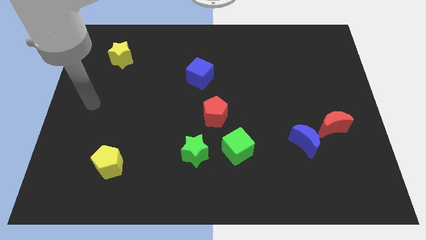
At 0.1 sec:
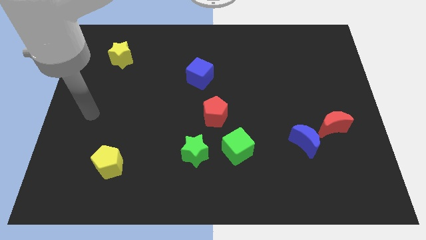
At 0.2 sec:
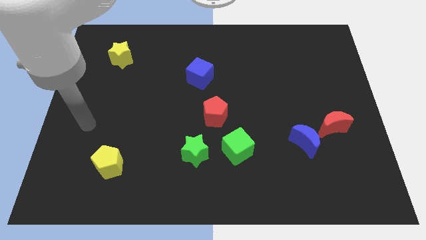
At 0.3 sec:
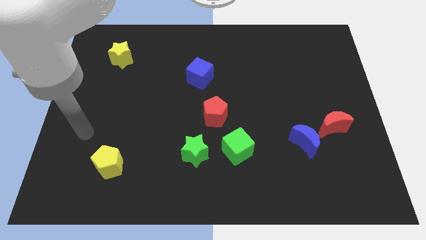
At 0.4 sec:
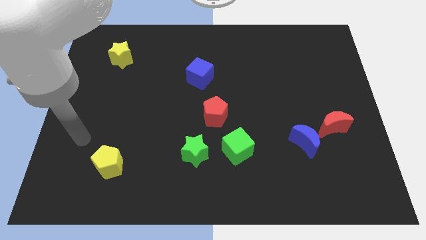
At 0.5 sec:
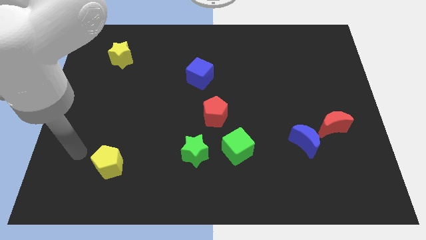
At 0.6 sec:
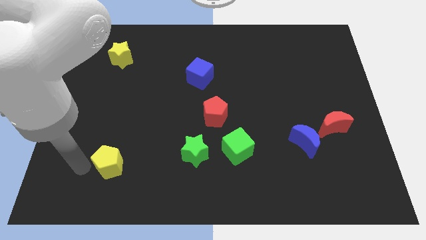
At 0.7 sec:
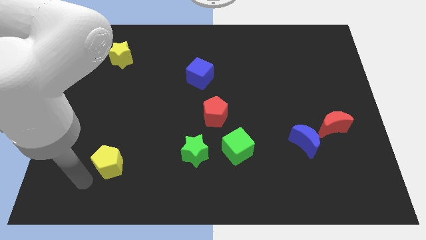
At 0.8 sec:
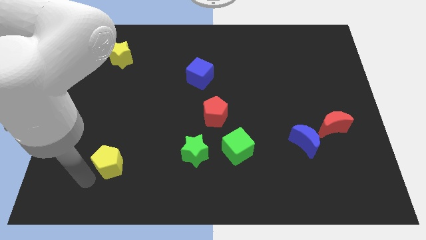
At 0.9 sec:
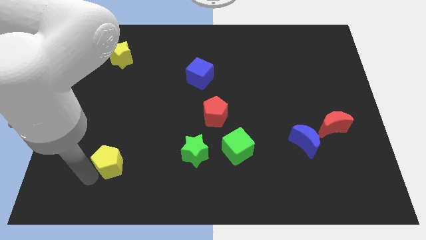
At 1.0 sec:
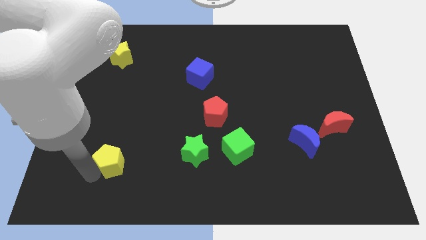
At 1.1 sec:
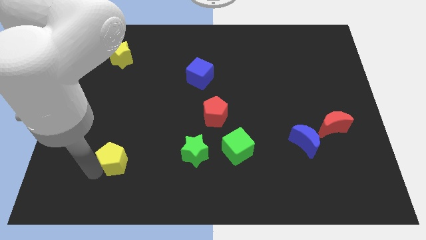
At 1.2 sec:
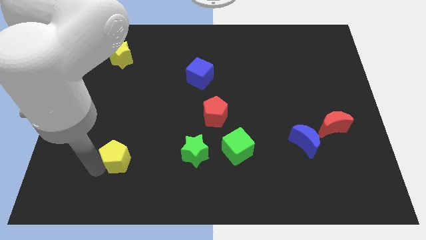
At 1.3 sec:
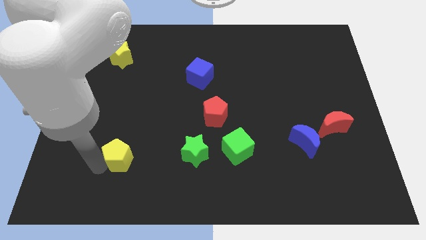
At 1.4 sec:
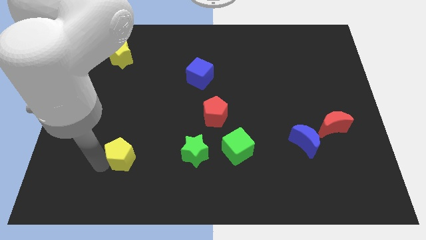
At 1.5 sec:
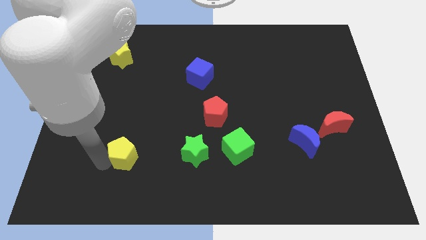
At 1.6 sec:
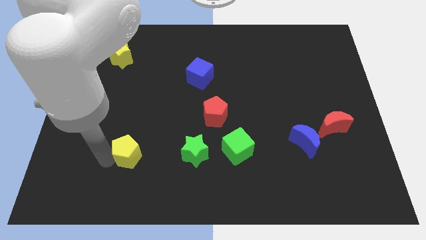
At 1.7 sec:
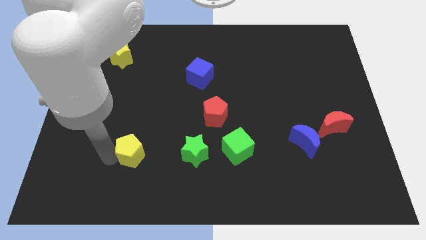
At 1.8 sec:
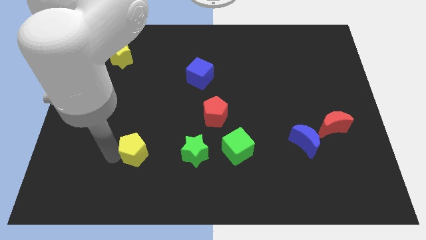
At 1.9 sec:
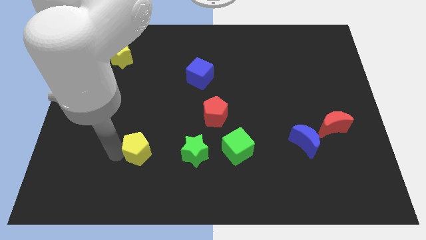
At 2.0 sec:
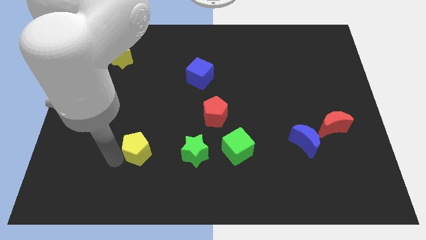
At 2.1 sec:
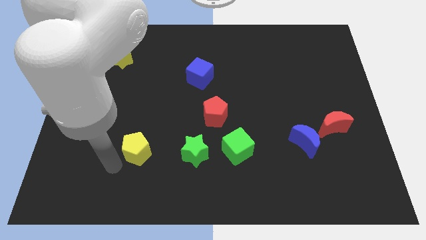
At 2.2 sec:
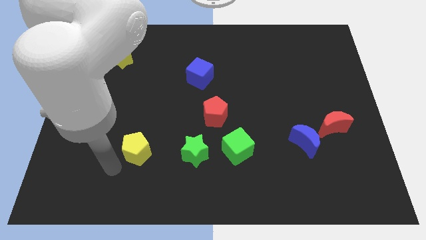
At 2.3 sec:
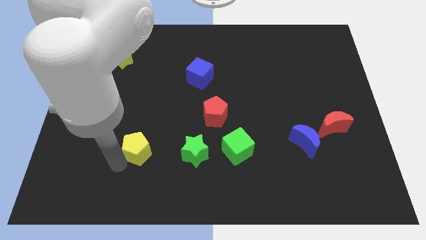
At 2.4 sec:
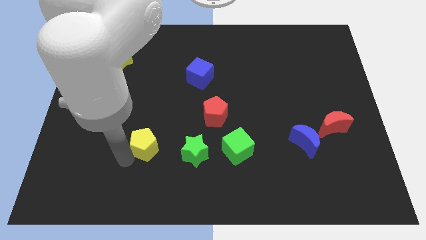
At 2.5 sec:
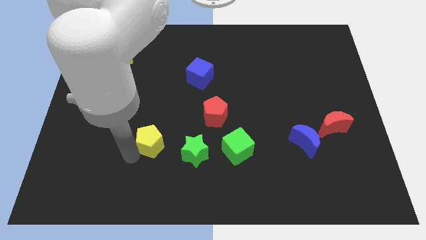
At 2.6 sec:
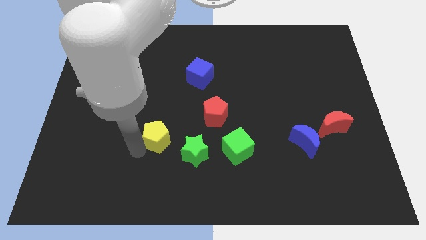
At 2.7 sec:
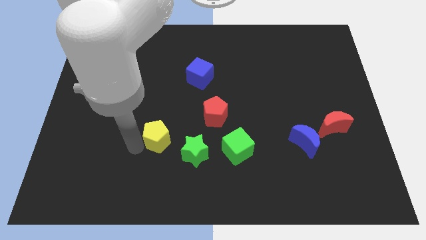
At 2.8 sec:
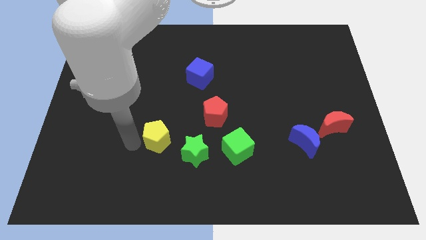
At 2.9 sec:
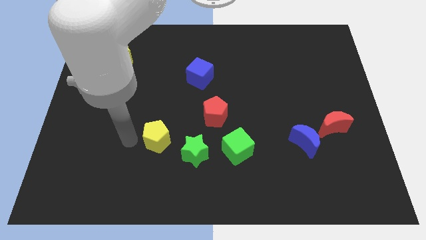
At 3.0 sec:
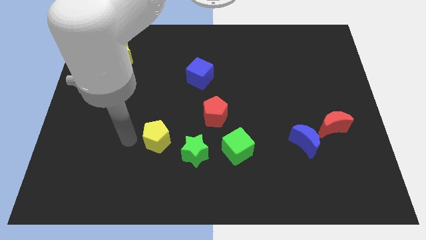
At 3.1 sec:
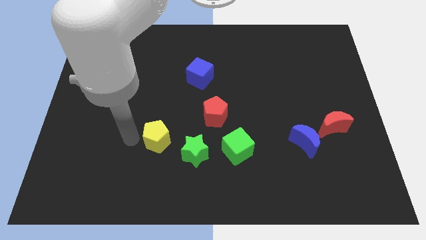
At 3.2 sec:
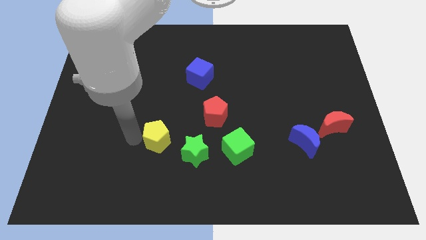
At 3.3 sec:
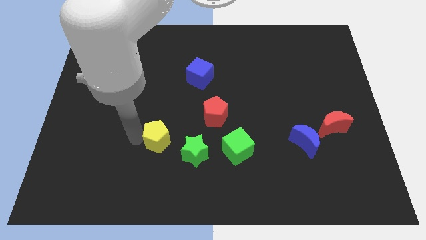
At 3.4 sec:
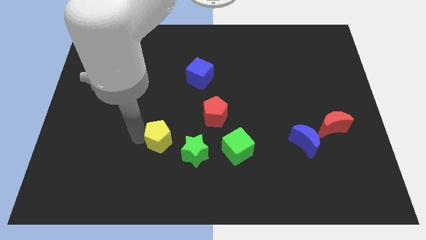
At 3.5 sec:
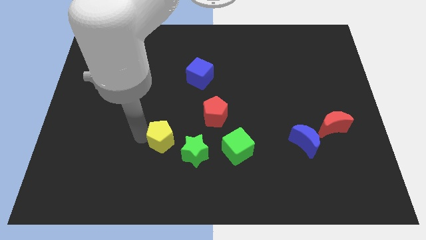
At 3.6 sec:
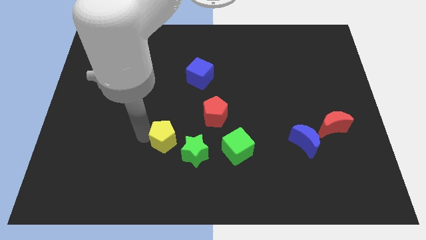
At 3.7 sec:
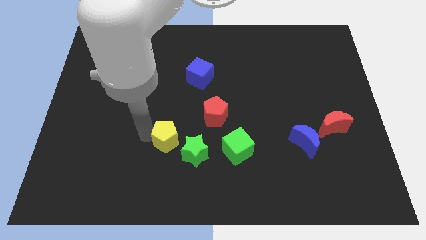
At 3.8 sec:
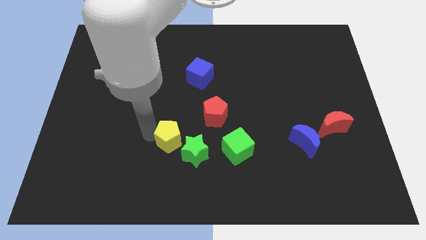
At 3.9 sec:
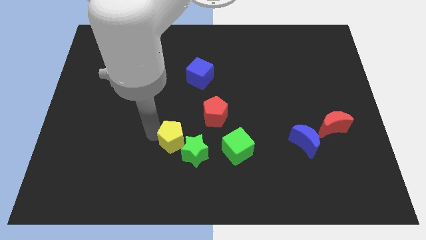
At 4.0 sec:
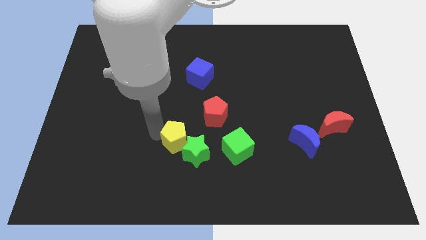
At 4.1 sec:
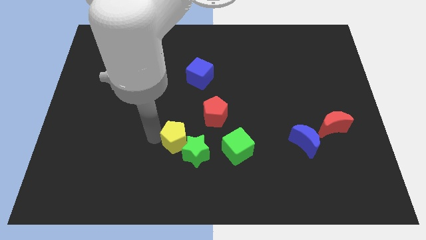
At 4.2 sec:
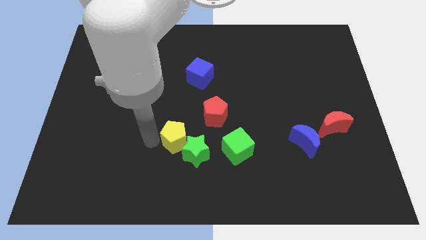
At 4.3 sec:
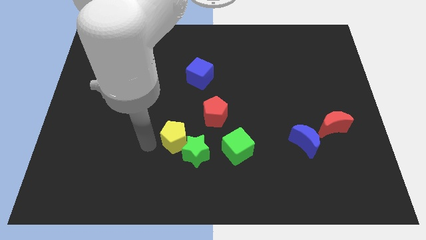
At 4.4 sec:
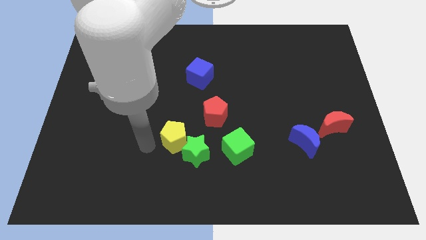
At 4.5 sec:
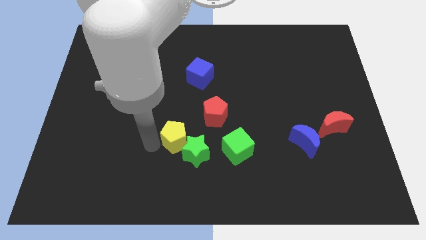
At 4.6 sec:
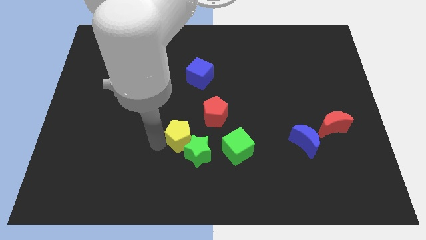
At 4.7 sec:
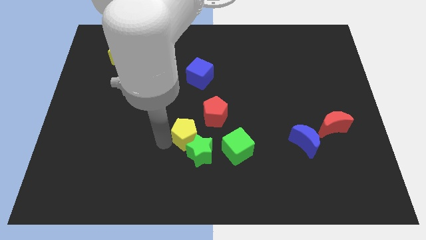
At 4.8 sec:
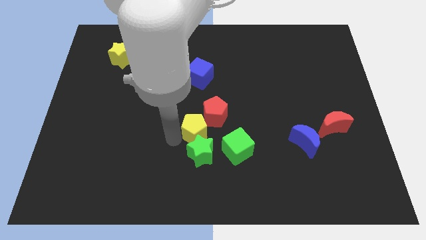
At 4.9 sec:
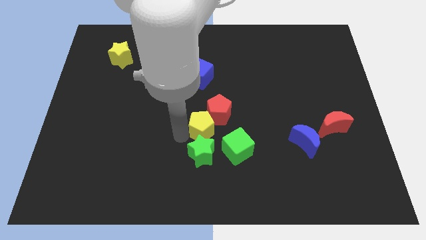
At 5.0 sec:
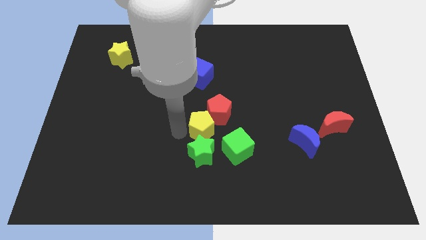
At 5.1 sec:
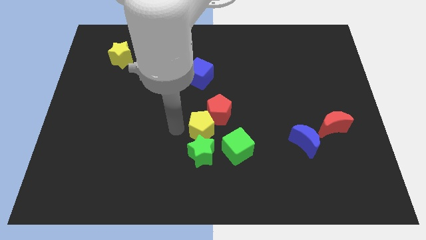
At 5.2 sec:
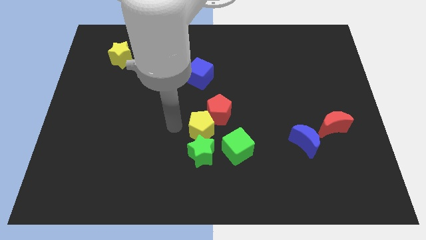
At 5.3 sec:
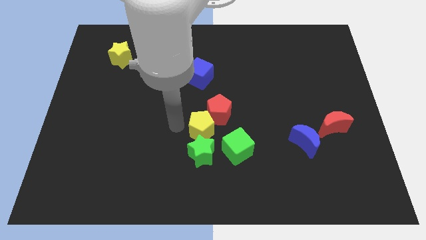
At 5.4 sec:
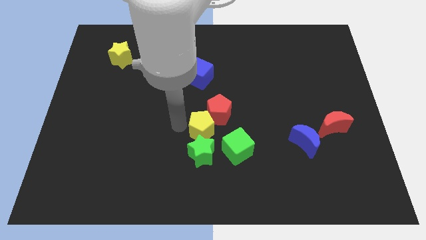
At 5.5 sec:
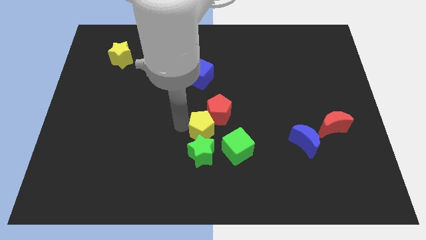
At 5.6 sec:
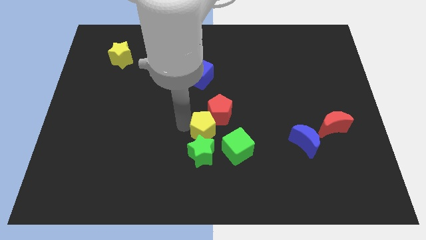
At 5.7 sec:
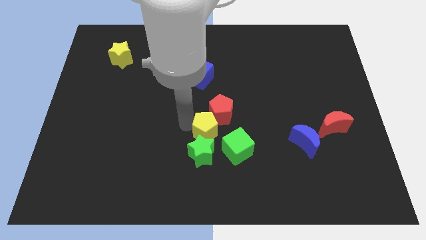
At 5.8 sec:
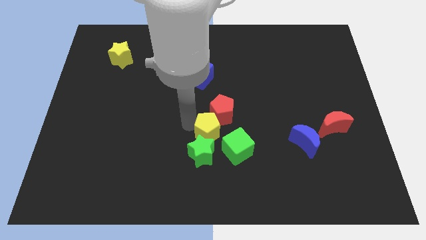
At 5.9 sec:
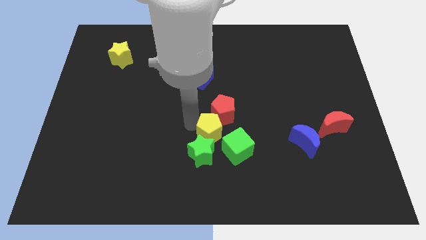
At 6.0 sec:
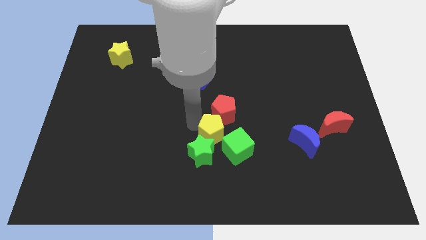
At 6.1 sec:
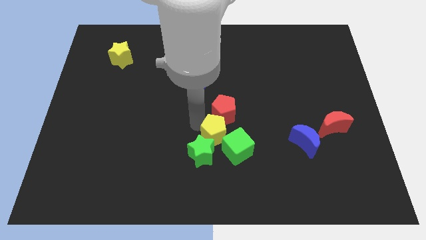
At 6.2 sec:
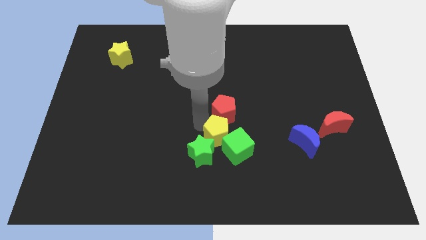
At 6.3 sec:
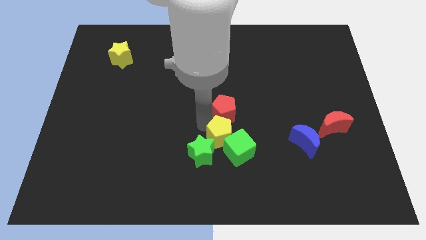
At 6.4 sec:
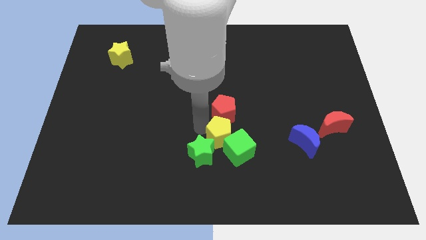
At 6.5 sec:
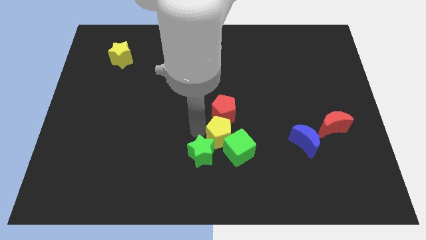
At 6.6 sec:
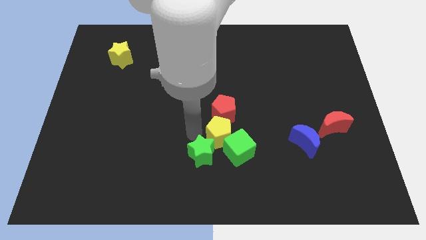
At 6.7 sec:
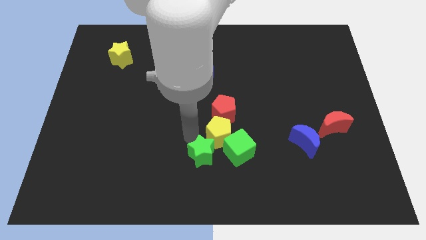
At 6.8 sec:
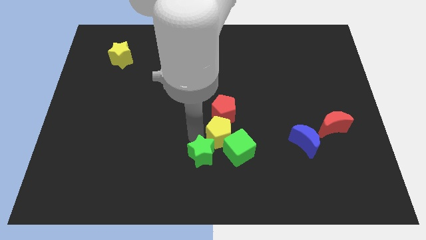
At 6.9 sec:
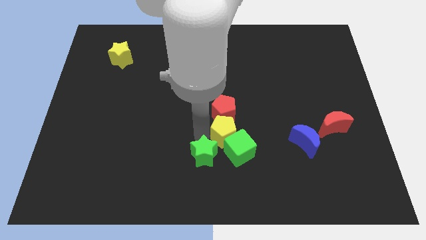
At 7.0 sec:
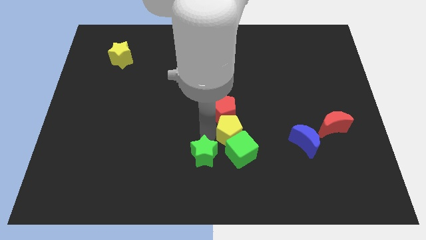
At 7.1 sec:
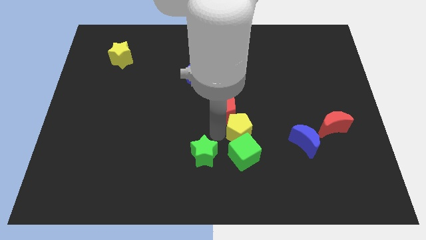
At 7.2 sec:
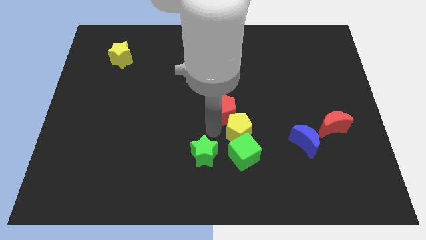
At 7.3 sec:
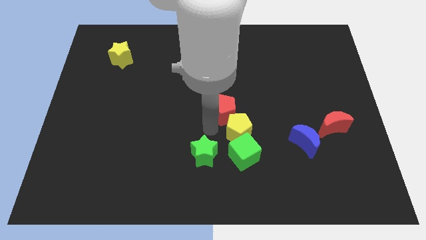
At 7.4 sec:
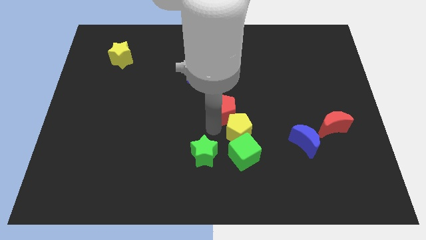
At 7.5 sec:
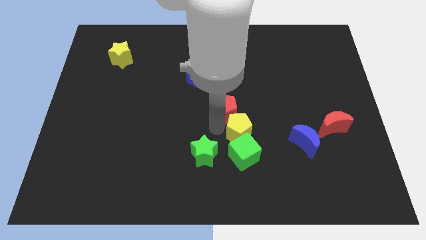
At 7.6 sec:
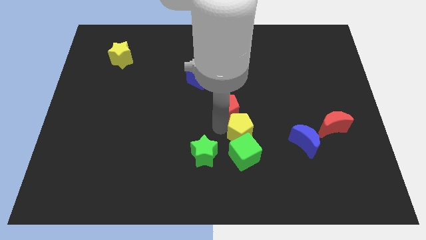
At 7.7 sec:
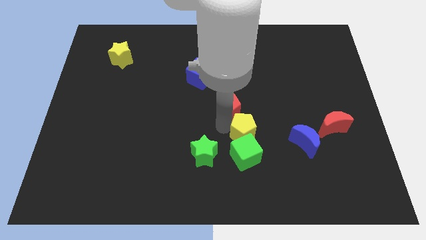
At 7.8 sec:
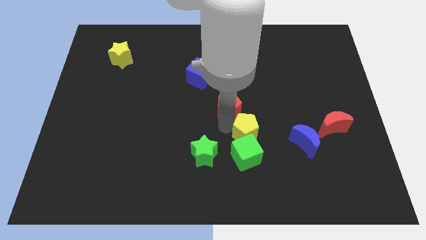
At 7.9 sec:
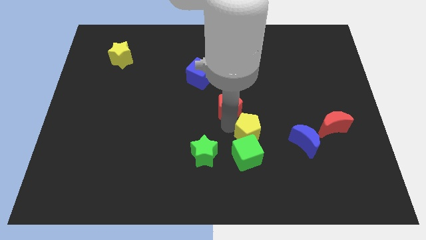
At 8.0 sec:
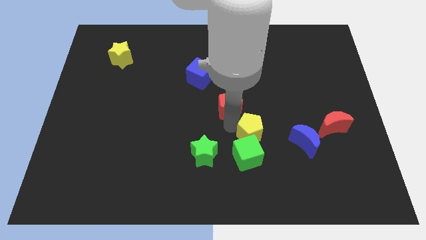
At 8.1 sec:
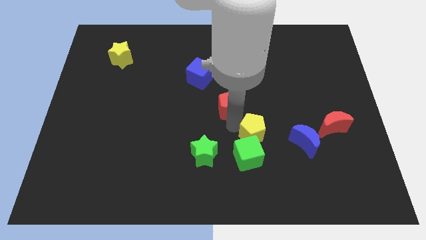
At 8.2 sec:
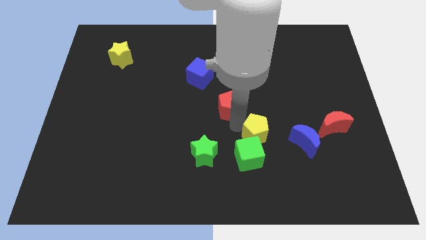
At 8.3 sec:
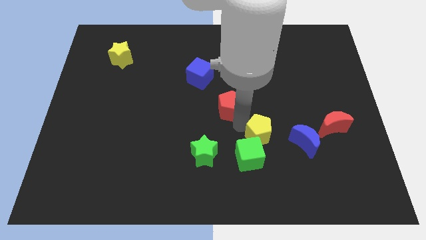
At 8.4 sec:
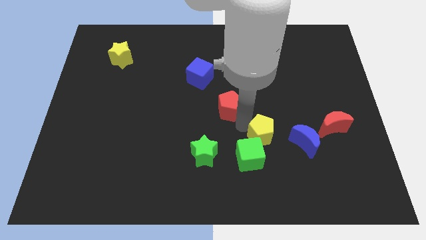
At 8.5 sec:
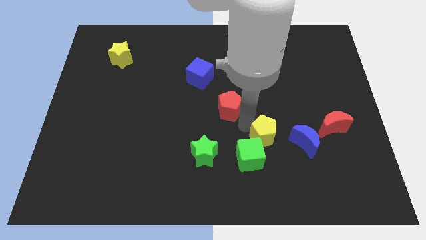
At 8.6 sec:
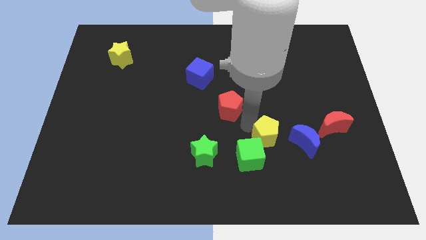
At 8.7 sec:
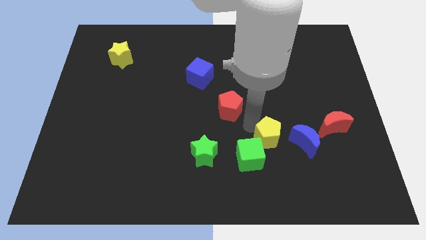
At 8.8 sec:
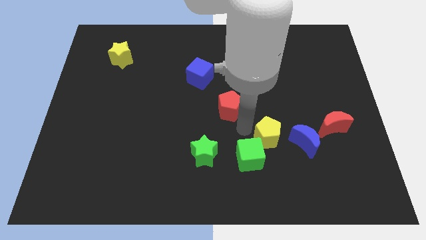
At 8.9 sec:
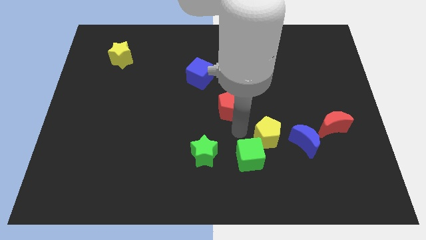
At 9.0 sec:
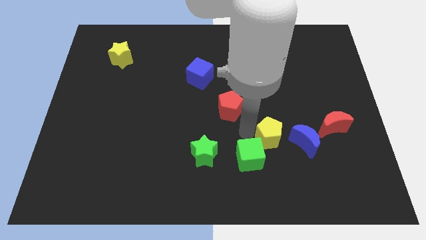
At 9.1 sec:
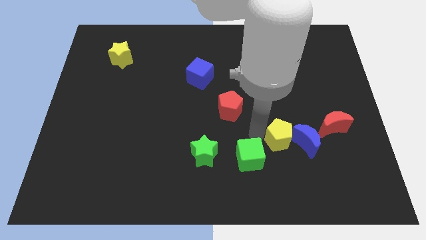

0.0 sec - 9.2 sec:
move the yellow pentagon next to the blue moon
